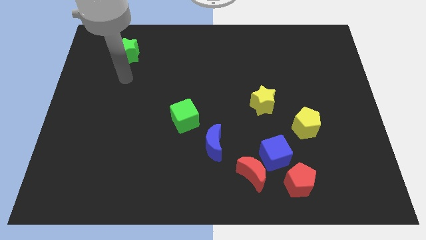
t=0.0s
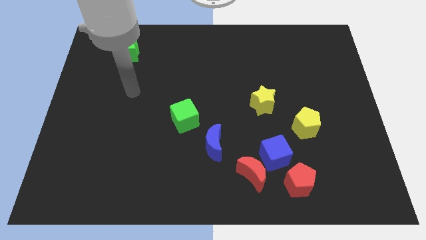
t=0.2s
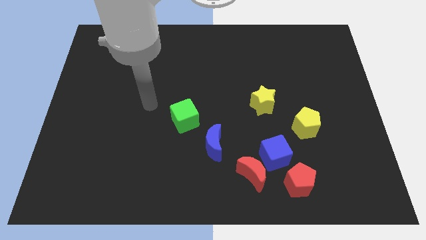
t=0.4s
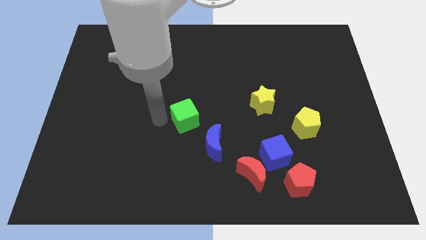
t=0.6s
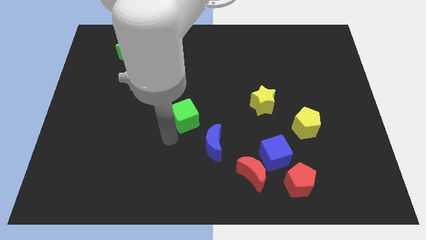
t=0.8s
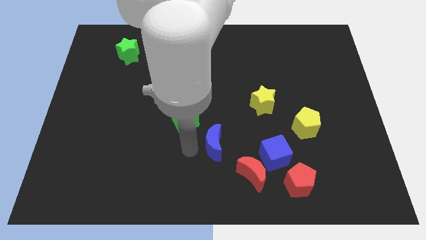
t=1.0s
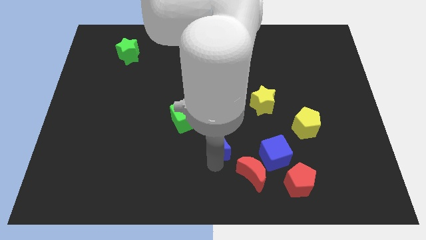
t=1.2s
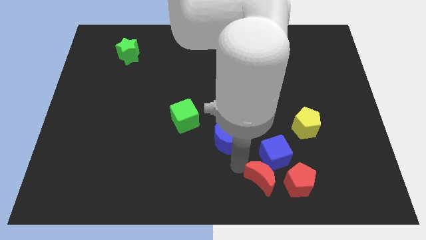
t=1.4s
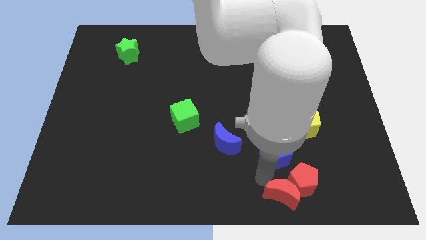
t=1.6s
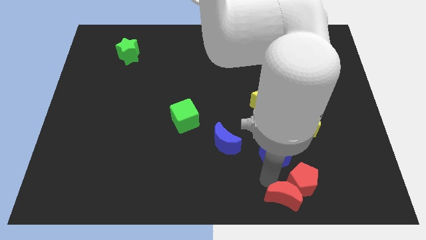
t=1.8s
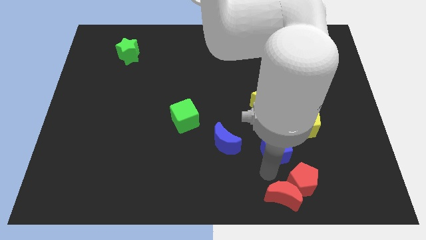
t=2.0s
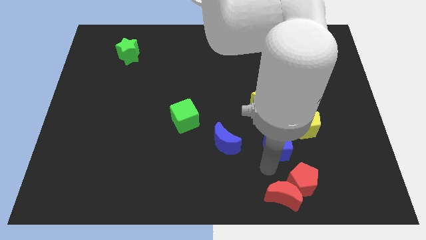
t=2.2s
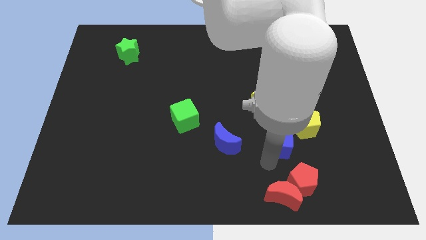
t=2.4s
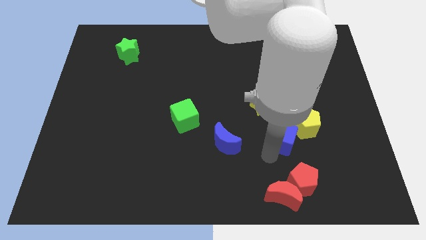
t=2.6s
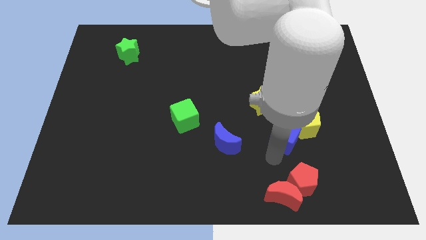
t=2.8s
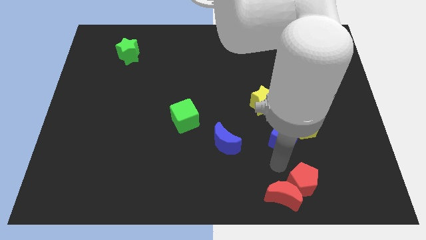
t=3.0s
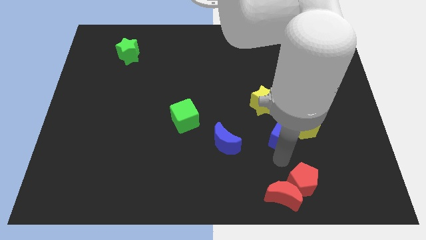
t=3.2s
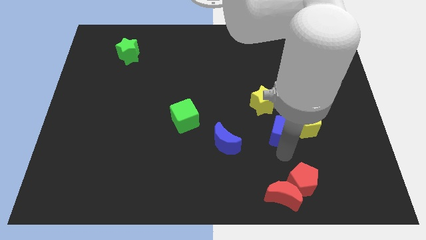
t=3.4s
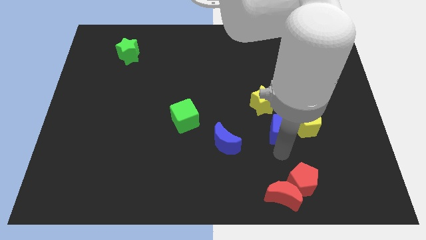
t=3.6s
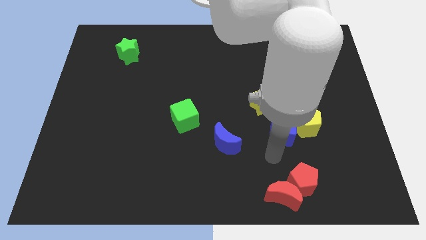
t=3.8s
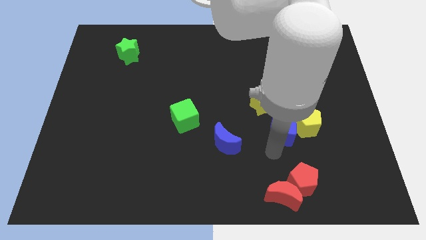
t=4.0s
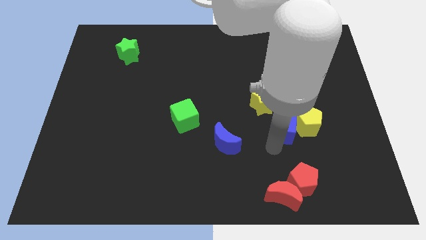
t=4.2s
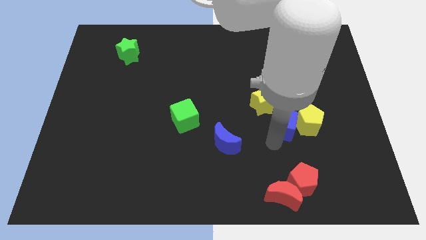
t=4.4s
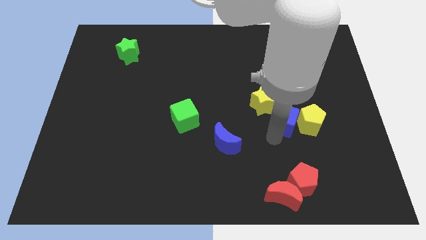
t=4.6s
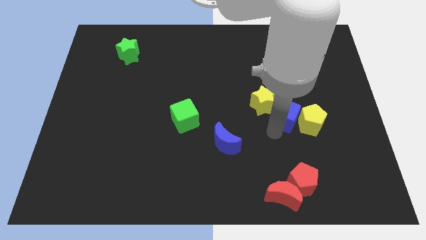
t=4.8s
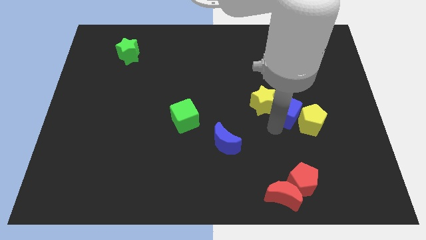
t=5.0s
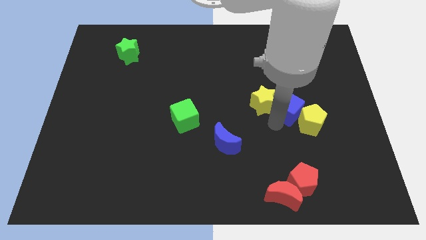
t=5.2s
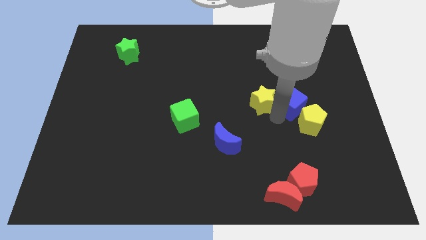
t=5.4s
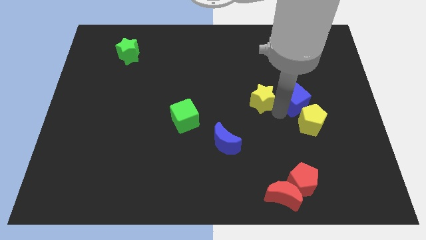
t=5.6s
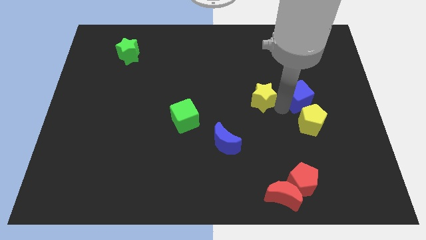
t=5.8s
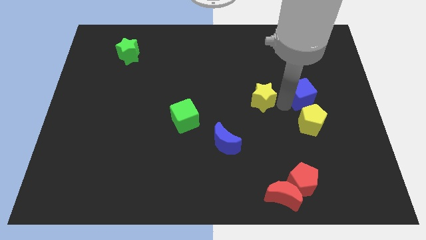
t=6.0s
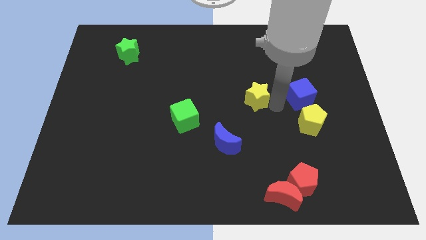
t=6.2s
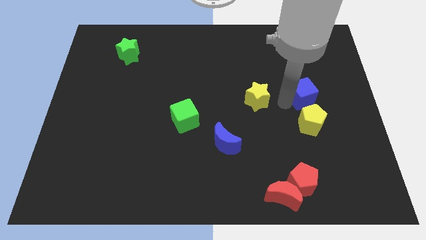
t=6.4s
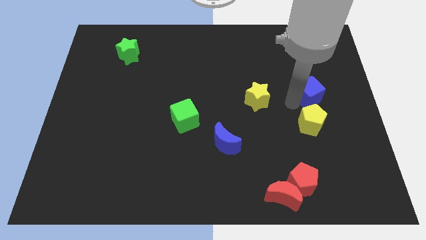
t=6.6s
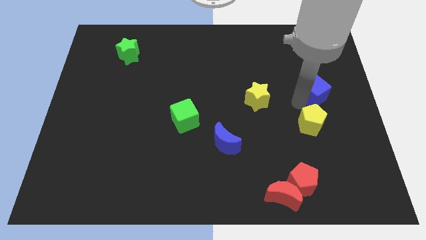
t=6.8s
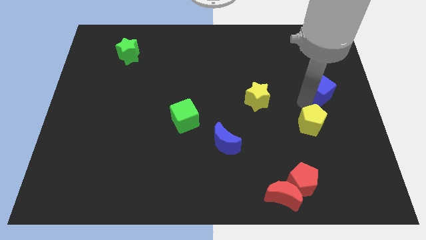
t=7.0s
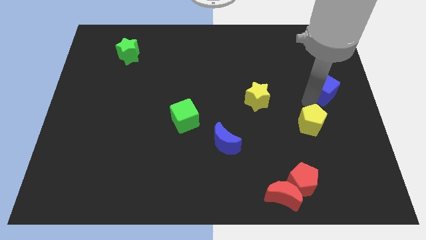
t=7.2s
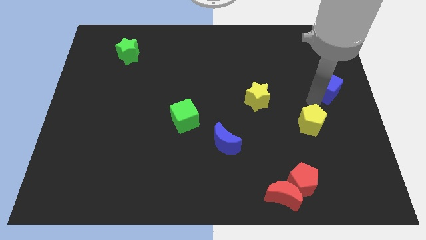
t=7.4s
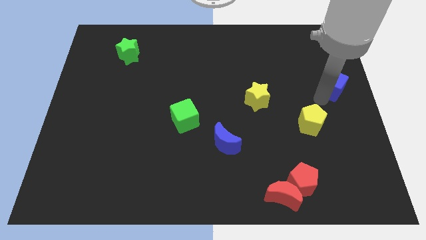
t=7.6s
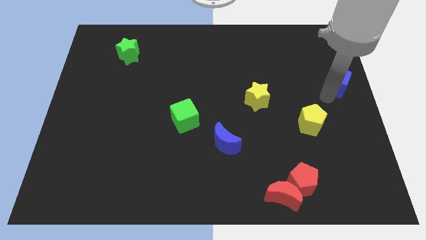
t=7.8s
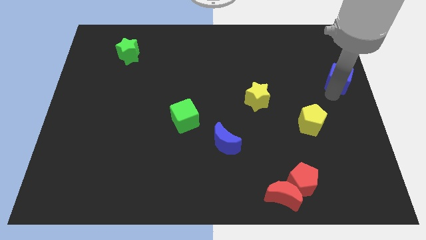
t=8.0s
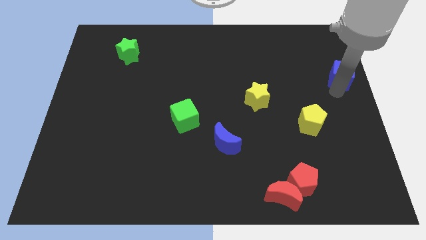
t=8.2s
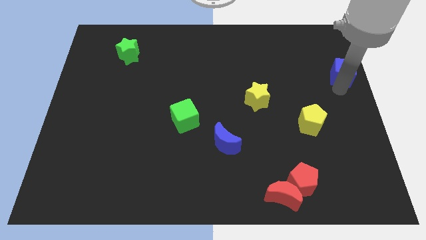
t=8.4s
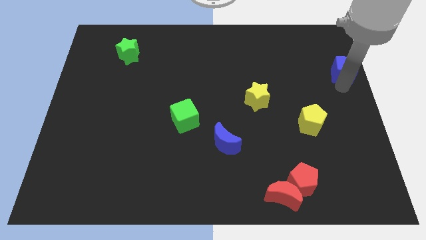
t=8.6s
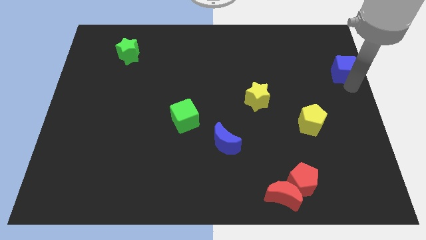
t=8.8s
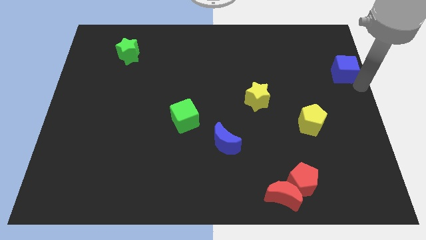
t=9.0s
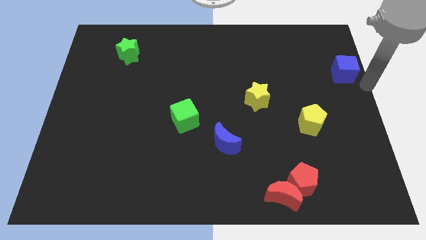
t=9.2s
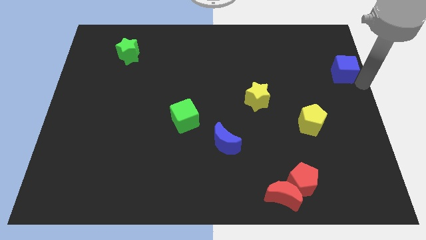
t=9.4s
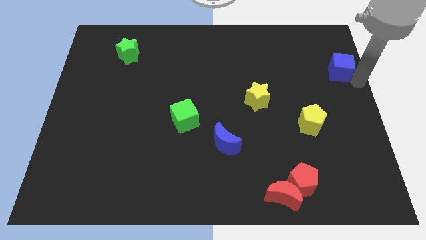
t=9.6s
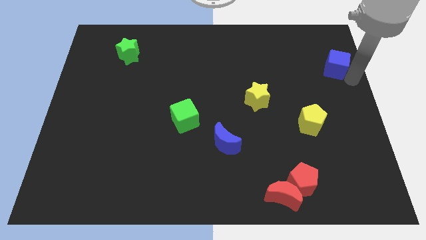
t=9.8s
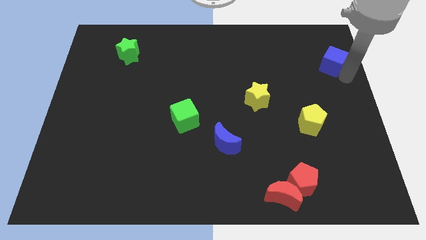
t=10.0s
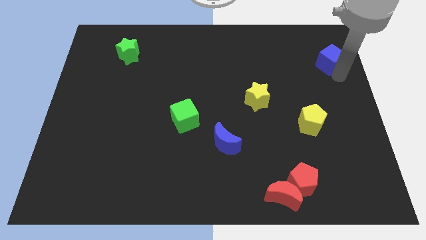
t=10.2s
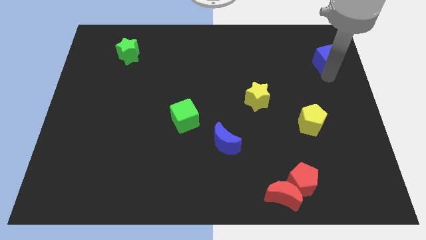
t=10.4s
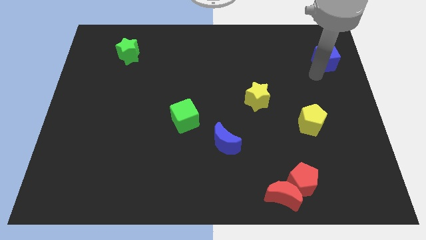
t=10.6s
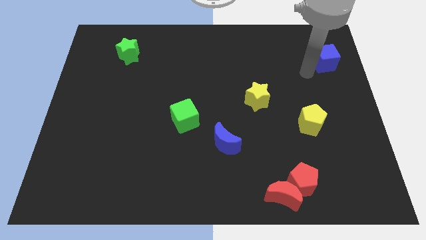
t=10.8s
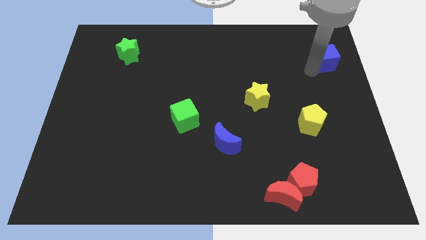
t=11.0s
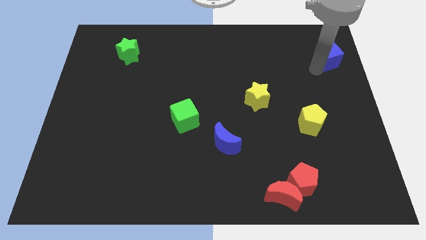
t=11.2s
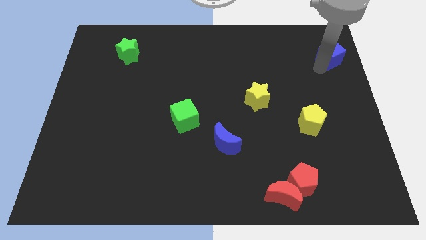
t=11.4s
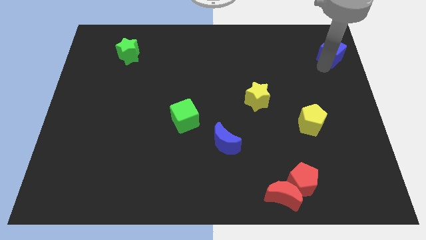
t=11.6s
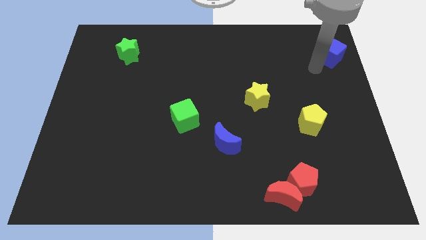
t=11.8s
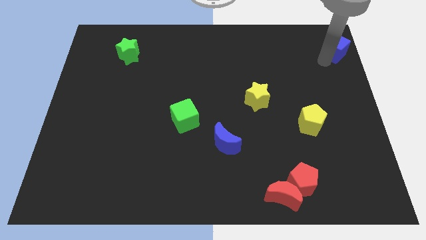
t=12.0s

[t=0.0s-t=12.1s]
put the blue cube to the upper right corner

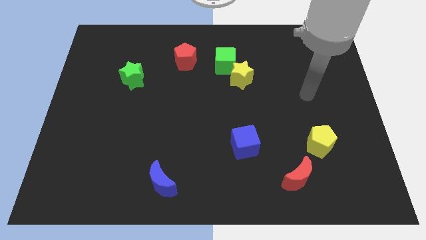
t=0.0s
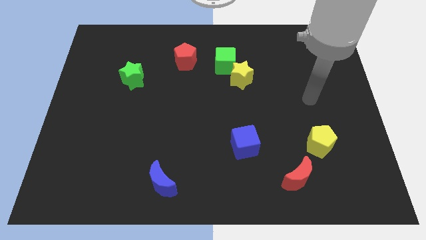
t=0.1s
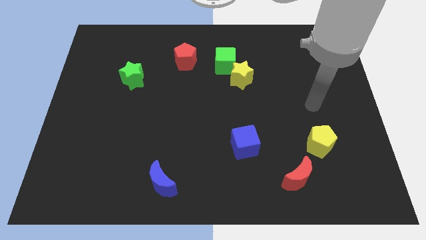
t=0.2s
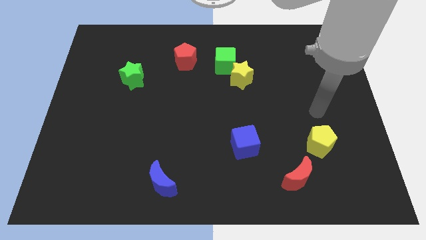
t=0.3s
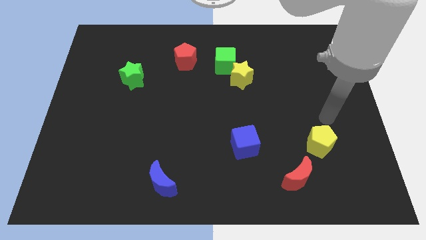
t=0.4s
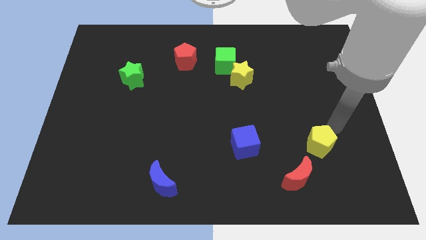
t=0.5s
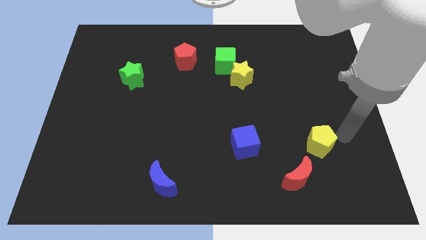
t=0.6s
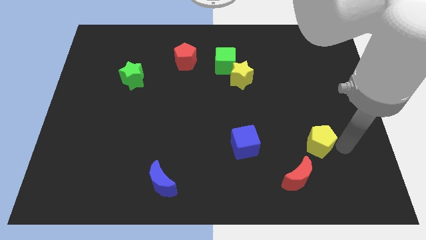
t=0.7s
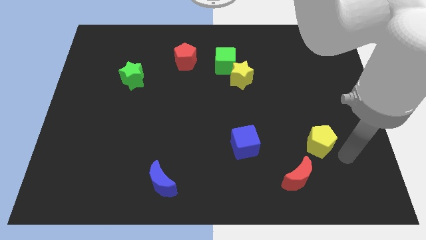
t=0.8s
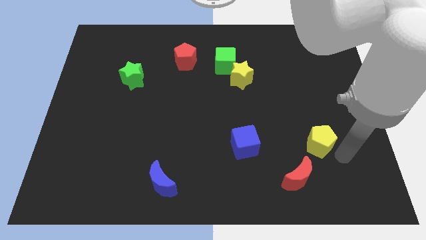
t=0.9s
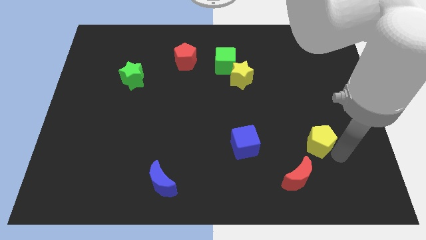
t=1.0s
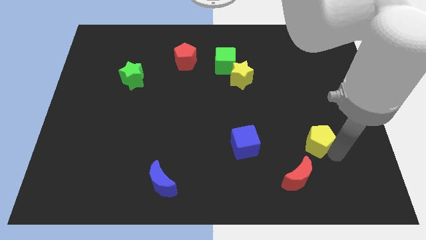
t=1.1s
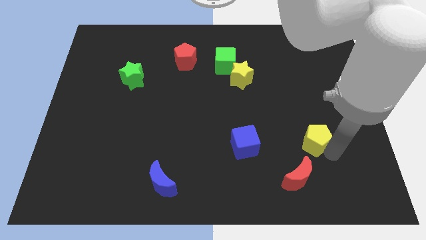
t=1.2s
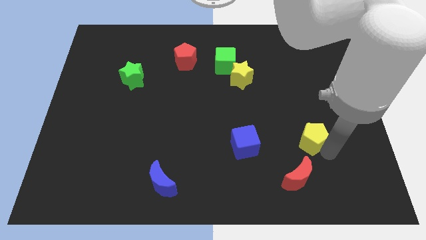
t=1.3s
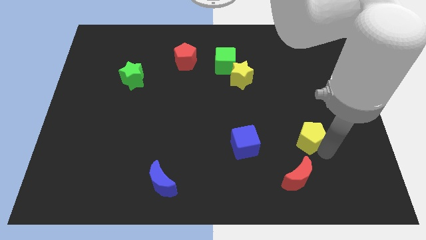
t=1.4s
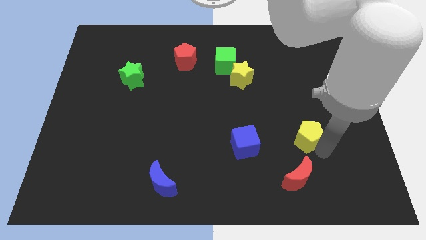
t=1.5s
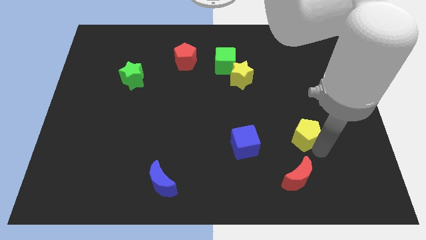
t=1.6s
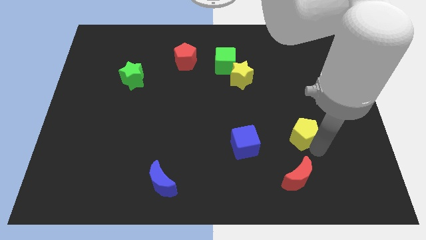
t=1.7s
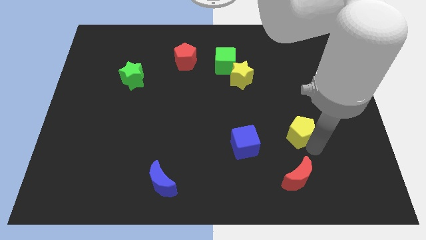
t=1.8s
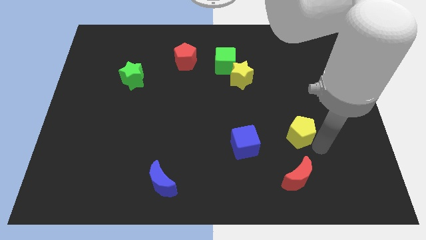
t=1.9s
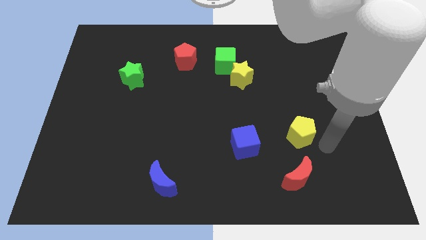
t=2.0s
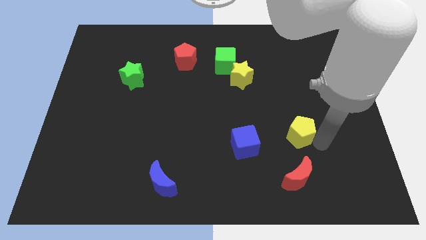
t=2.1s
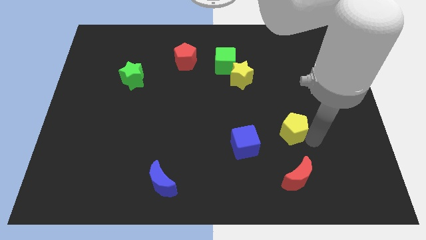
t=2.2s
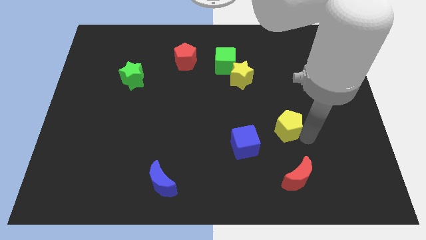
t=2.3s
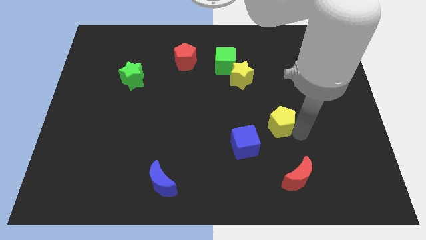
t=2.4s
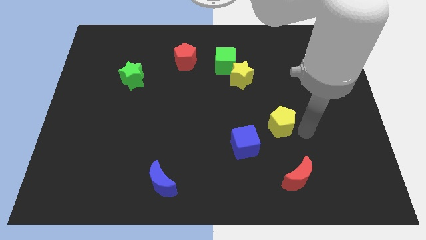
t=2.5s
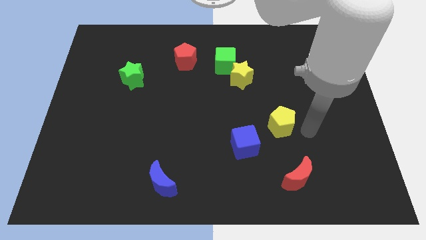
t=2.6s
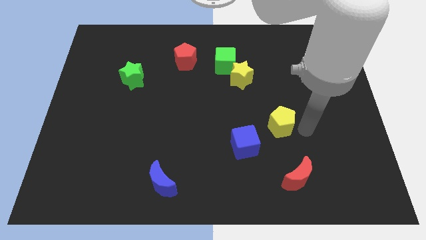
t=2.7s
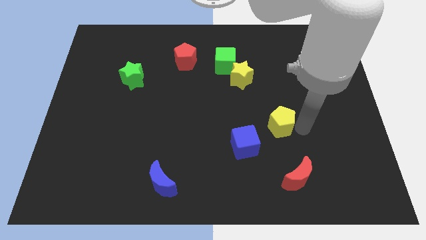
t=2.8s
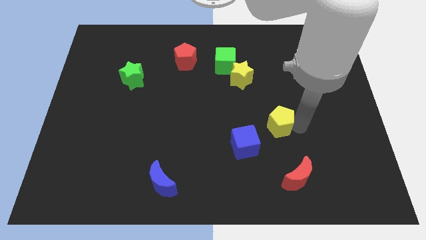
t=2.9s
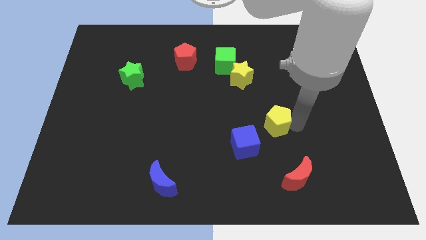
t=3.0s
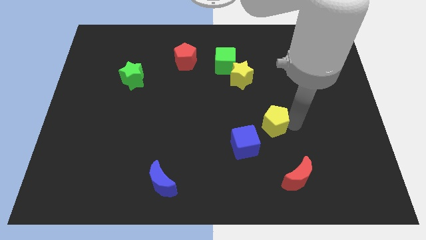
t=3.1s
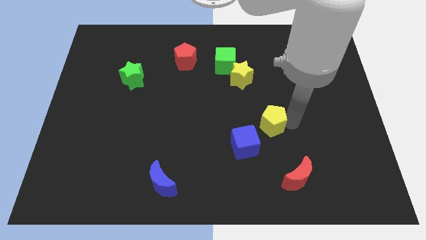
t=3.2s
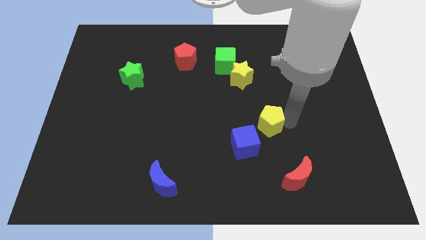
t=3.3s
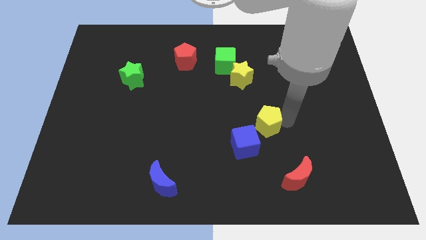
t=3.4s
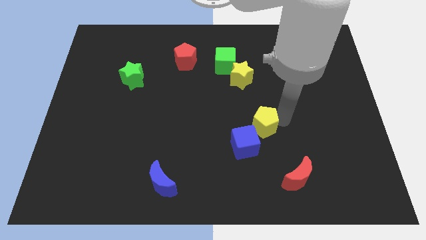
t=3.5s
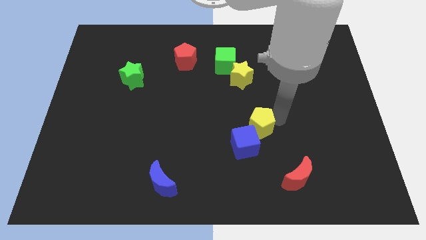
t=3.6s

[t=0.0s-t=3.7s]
put the yellow pentagon to the middle
